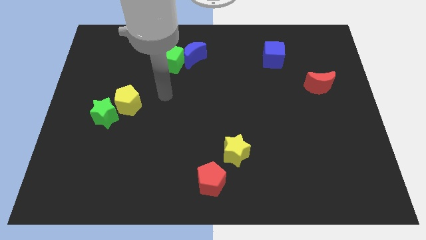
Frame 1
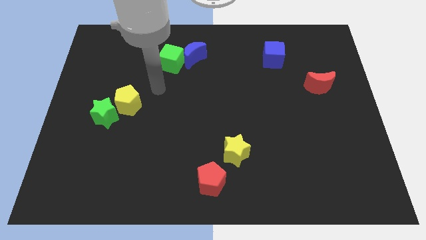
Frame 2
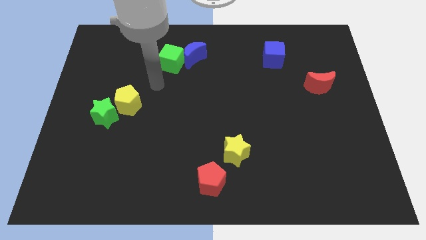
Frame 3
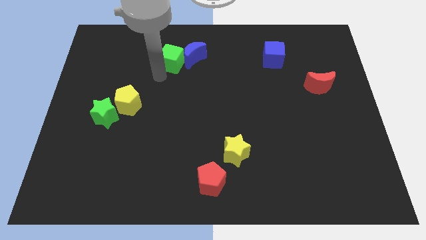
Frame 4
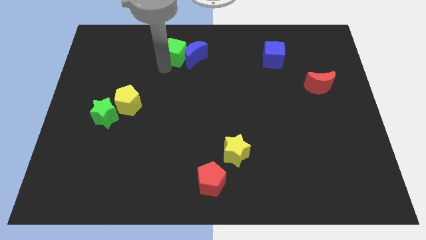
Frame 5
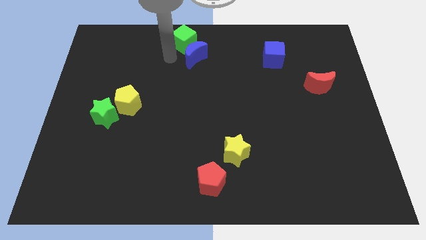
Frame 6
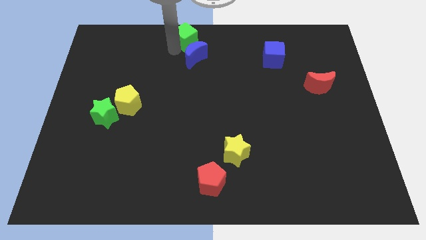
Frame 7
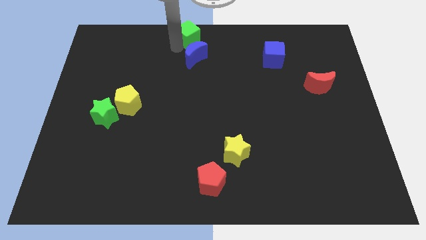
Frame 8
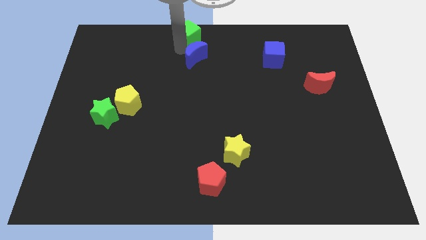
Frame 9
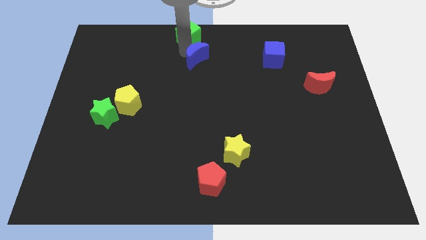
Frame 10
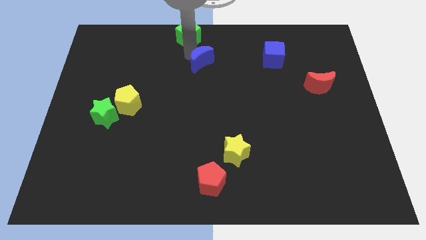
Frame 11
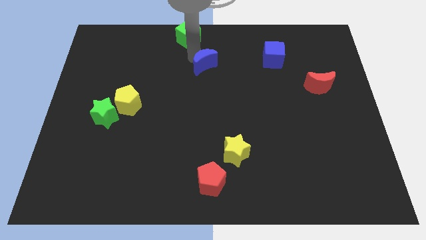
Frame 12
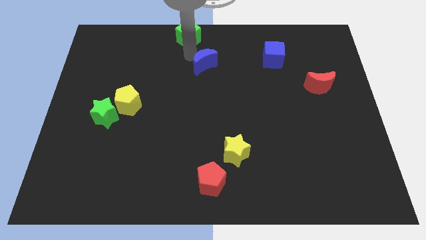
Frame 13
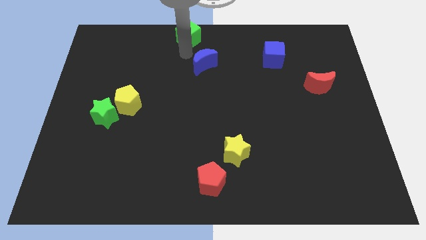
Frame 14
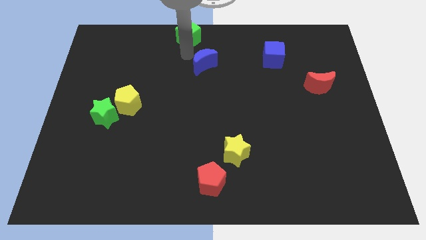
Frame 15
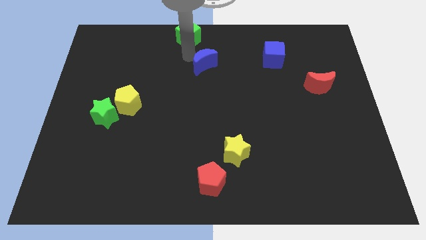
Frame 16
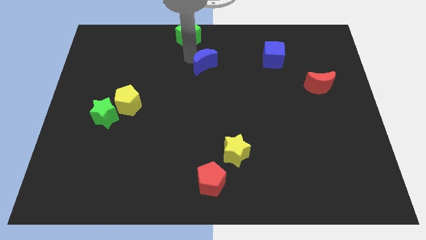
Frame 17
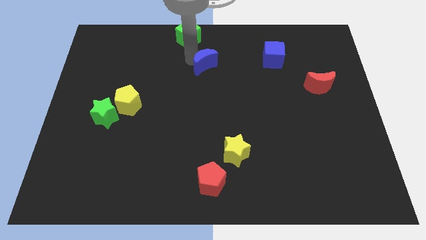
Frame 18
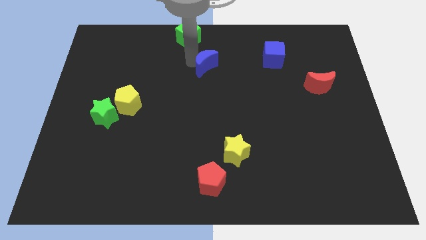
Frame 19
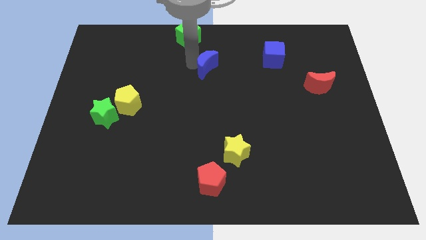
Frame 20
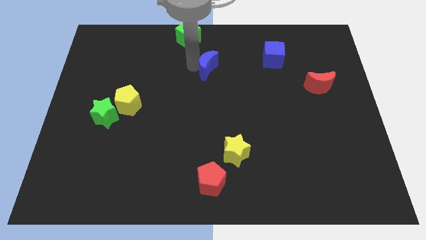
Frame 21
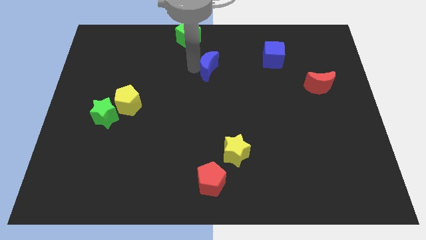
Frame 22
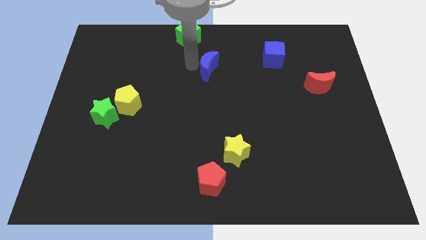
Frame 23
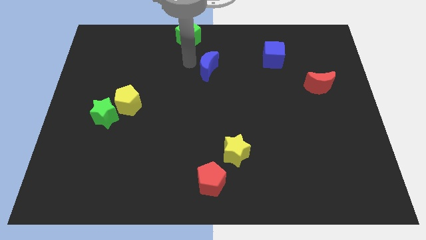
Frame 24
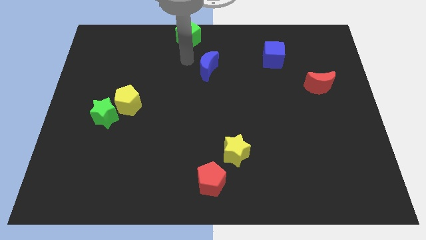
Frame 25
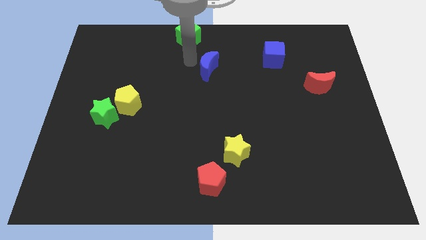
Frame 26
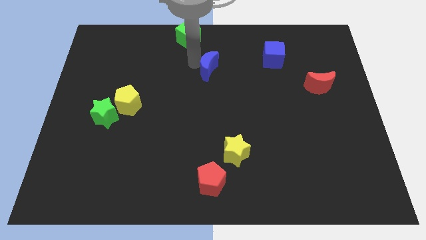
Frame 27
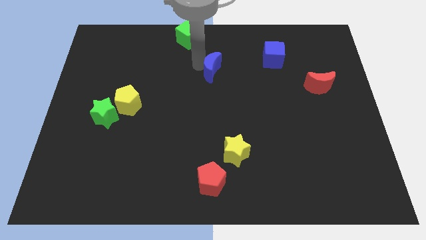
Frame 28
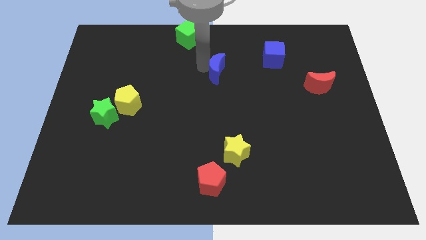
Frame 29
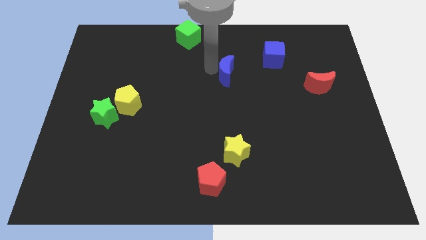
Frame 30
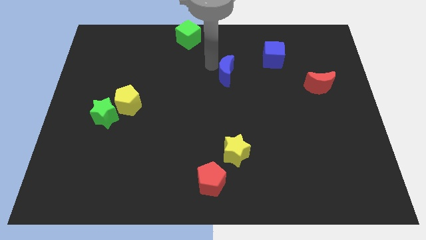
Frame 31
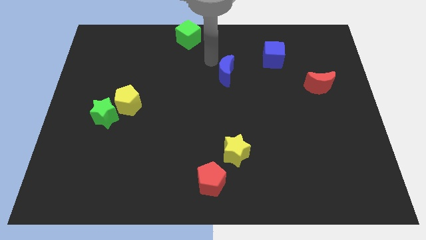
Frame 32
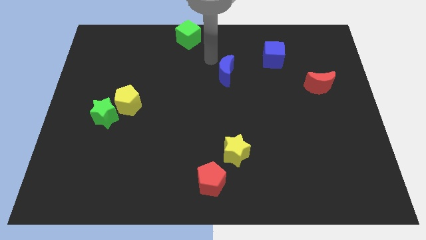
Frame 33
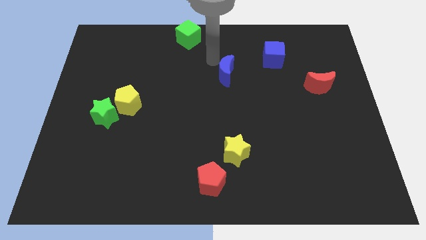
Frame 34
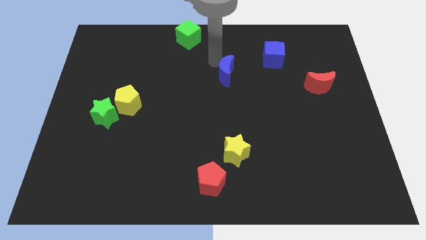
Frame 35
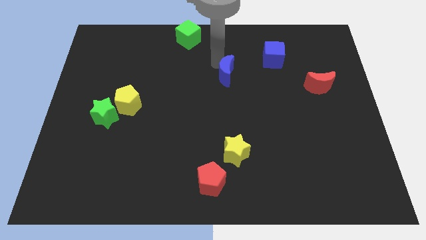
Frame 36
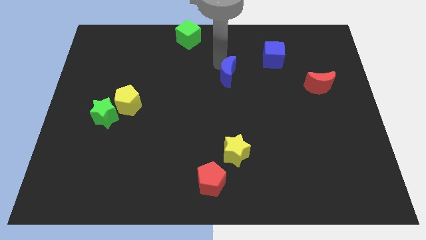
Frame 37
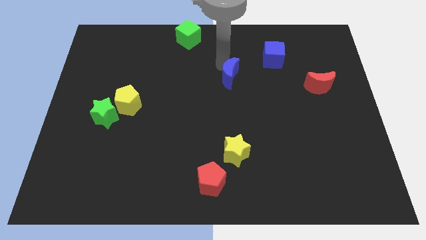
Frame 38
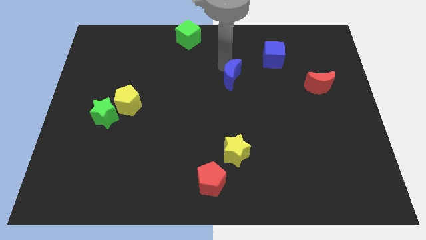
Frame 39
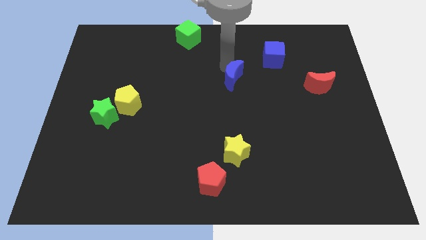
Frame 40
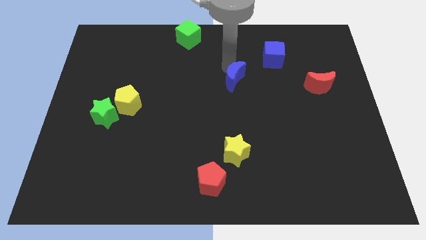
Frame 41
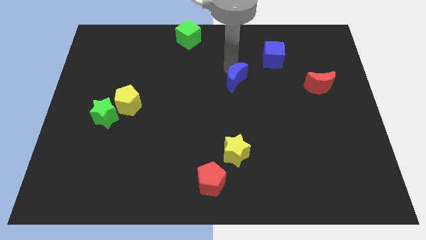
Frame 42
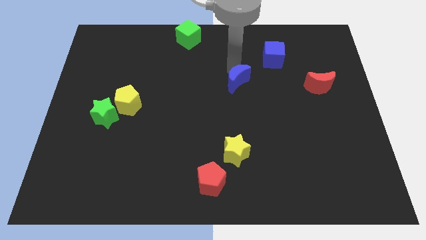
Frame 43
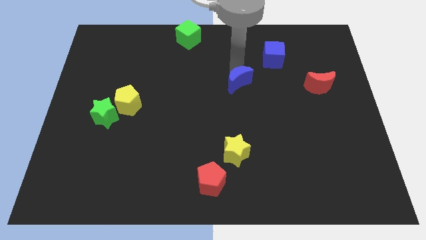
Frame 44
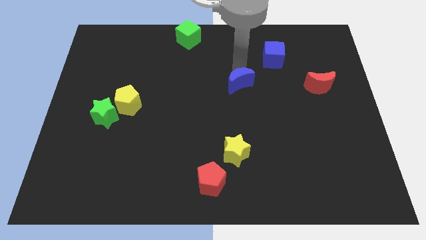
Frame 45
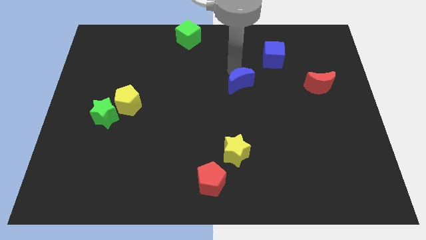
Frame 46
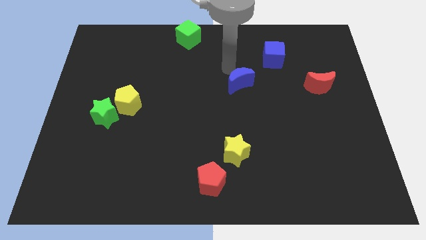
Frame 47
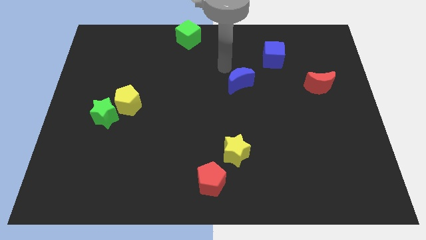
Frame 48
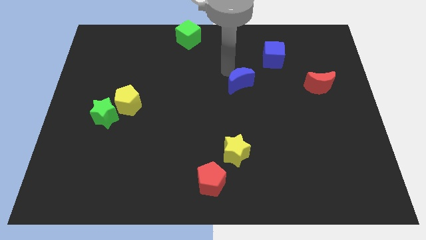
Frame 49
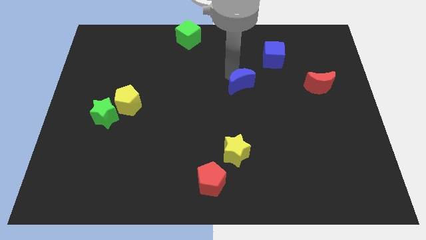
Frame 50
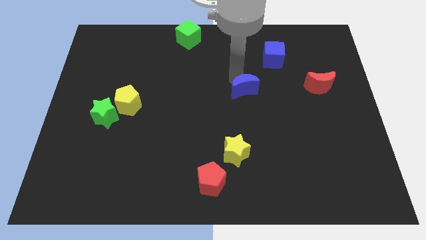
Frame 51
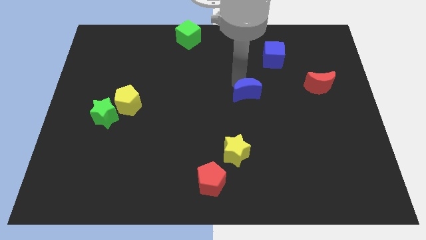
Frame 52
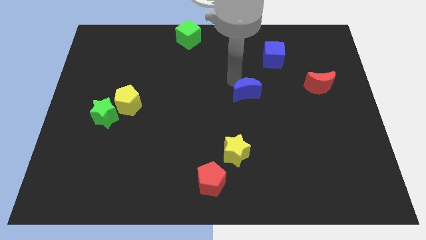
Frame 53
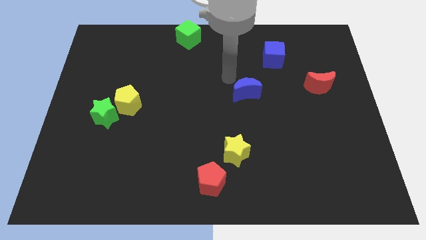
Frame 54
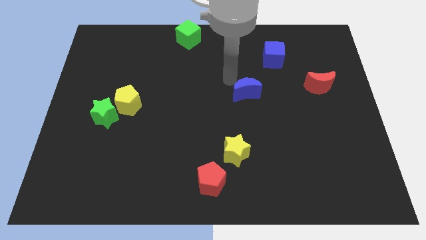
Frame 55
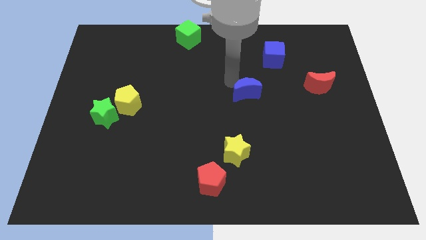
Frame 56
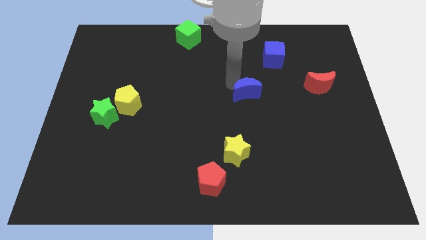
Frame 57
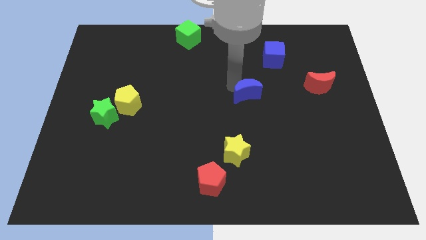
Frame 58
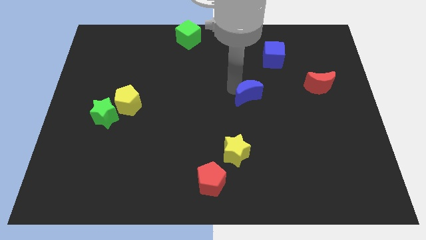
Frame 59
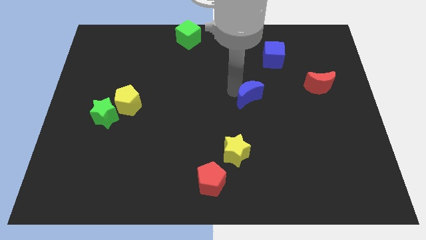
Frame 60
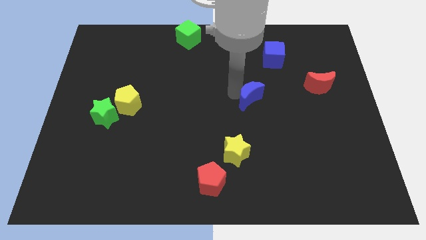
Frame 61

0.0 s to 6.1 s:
slide the blue moon down and to the right diagonally

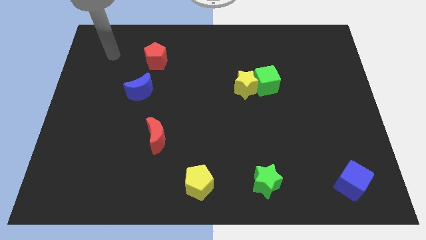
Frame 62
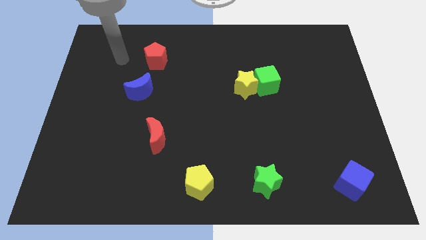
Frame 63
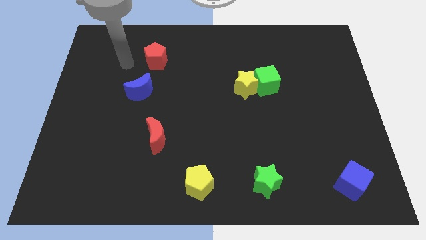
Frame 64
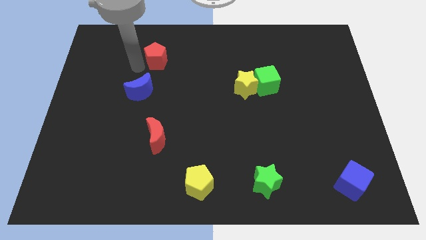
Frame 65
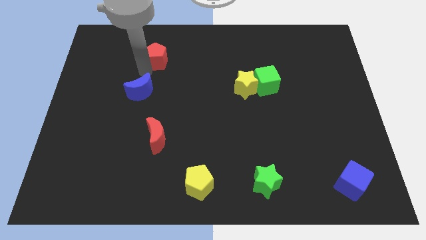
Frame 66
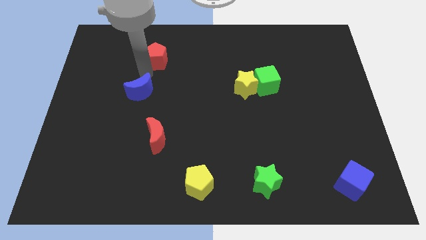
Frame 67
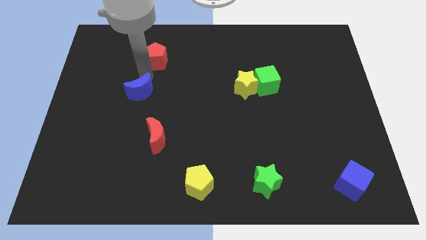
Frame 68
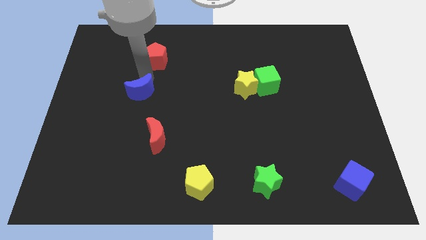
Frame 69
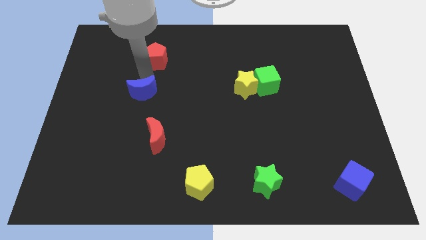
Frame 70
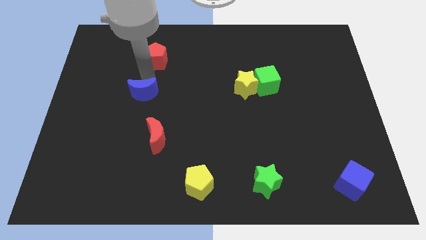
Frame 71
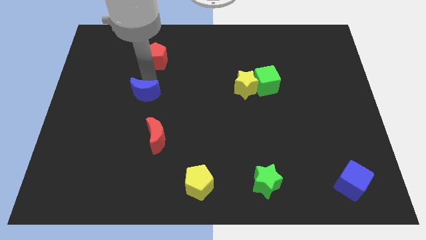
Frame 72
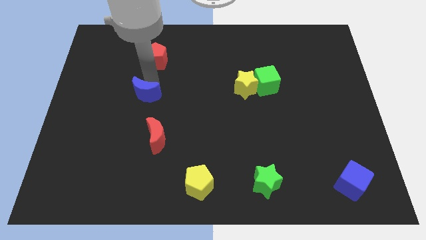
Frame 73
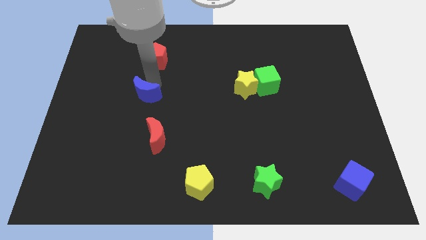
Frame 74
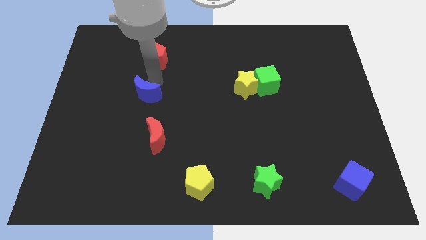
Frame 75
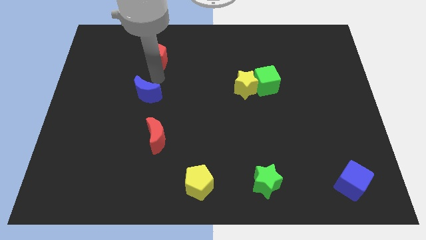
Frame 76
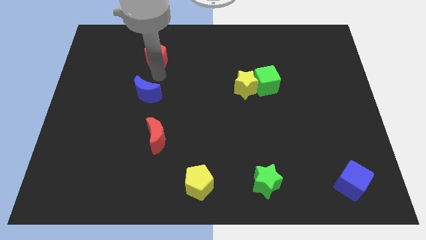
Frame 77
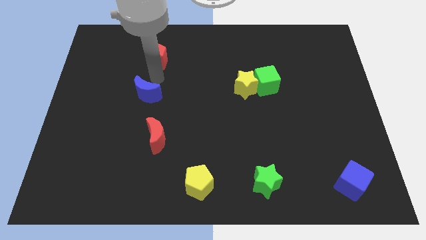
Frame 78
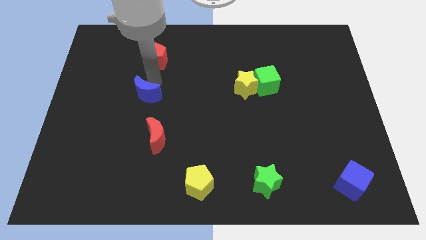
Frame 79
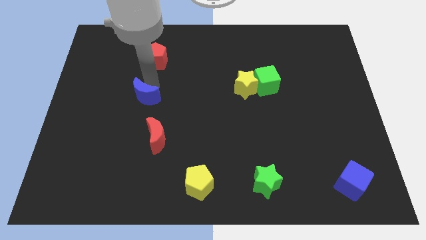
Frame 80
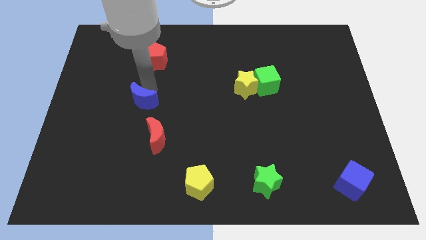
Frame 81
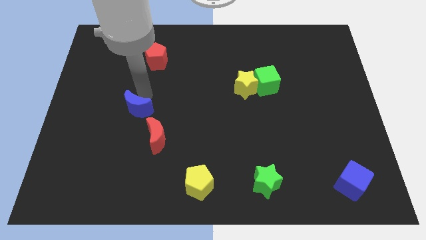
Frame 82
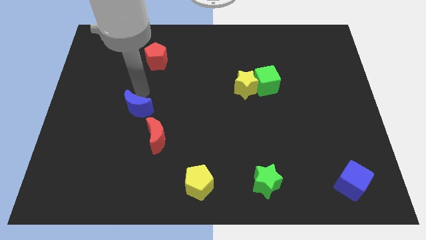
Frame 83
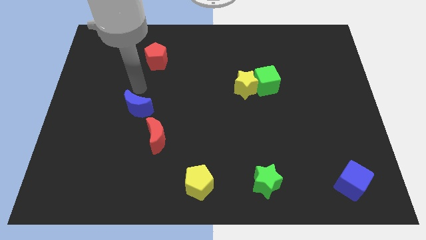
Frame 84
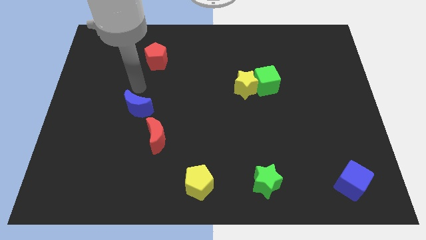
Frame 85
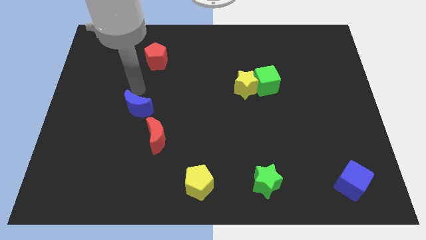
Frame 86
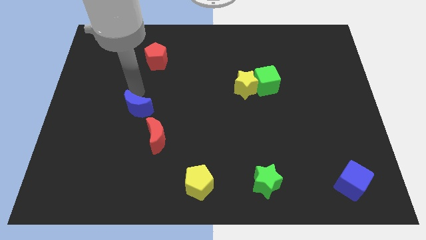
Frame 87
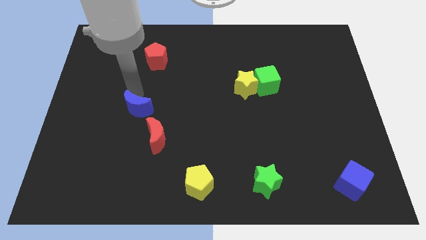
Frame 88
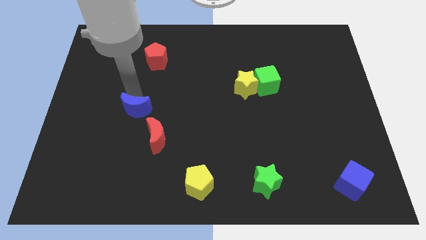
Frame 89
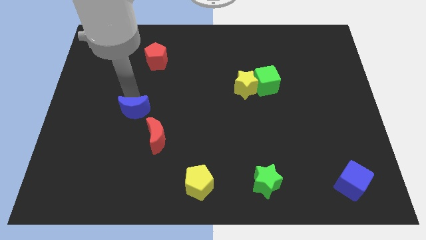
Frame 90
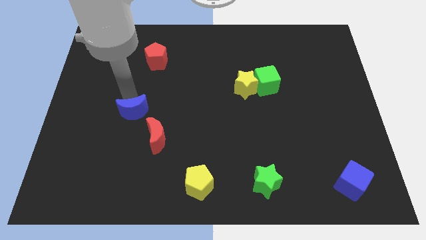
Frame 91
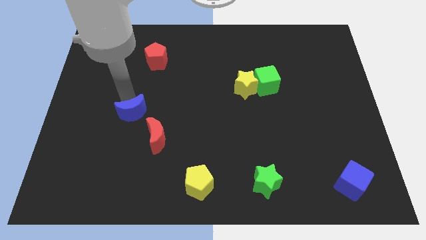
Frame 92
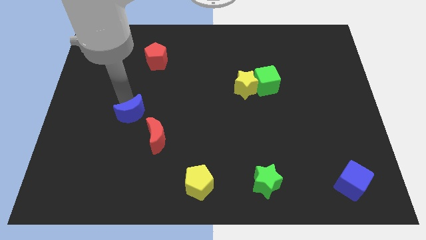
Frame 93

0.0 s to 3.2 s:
push the blue moon a little bit downwards
